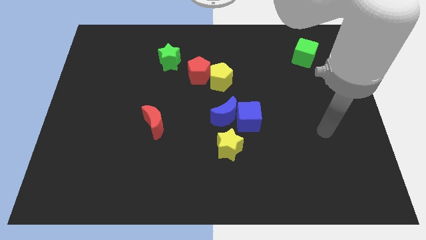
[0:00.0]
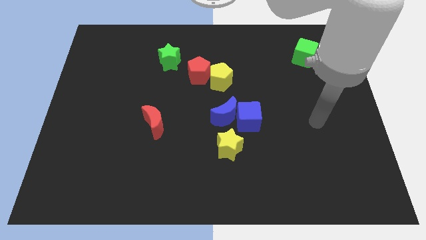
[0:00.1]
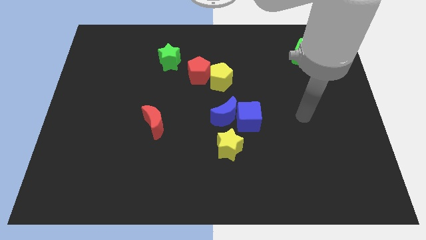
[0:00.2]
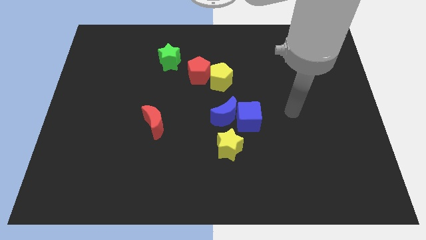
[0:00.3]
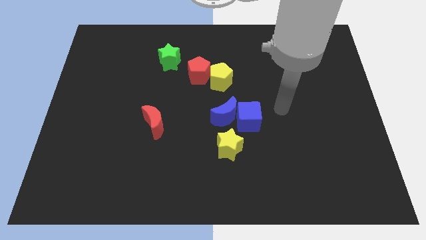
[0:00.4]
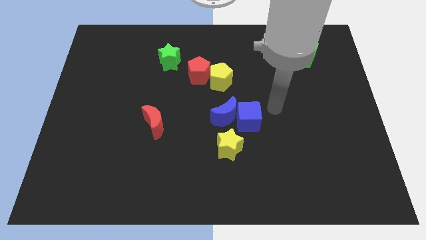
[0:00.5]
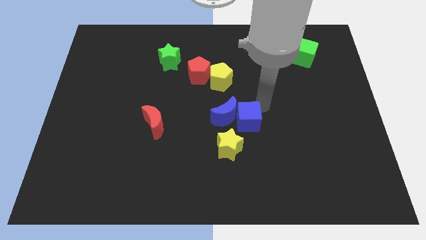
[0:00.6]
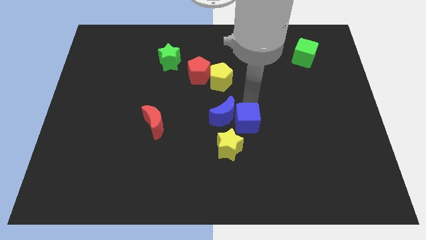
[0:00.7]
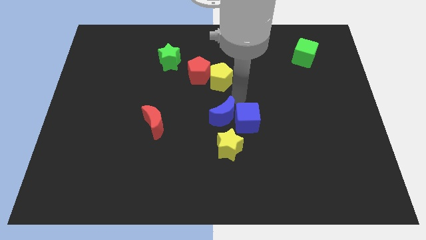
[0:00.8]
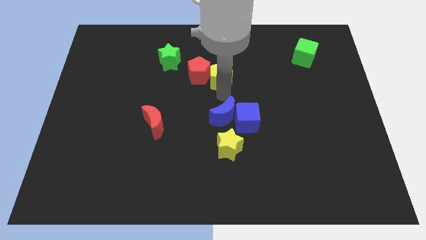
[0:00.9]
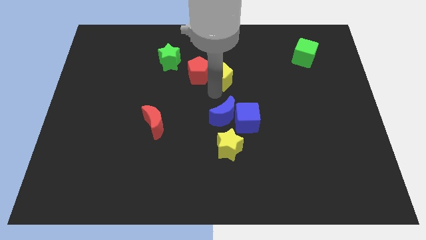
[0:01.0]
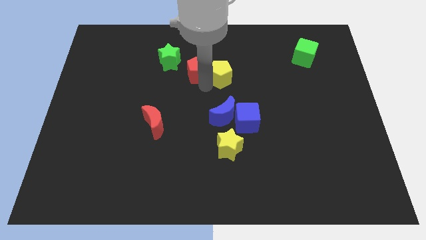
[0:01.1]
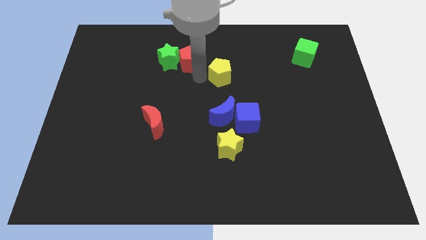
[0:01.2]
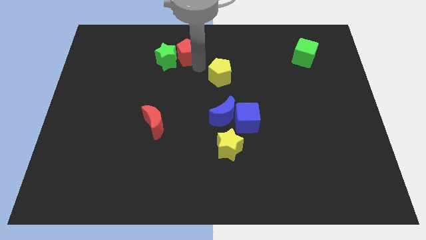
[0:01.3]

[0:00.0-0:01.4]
separate the yellow pentagon from the red pentagon

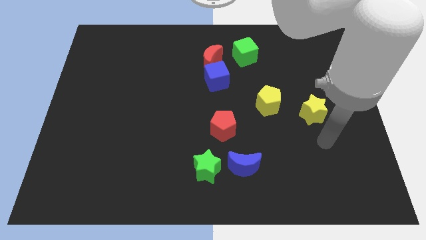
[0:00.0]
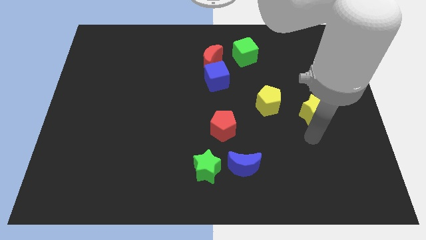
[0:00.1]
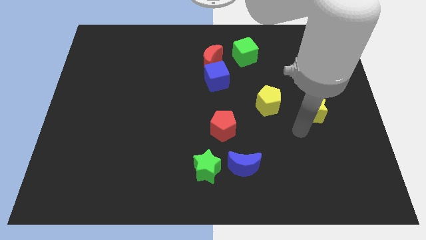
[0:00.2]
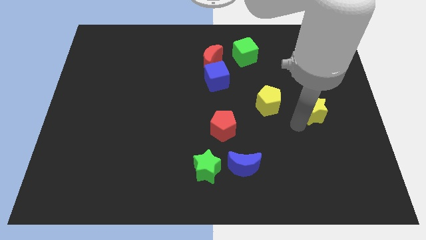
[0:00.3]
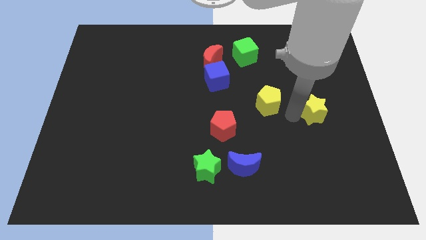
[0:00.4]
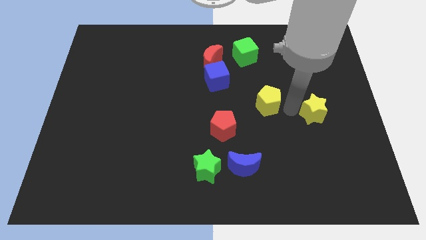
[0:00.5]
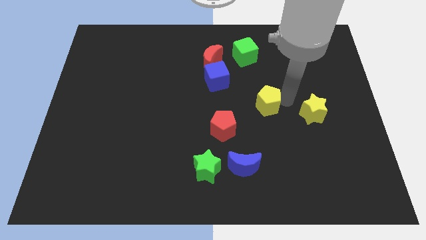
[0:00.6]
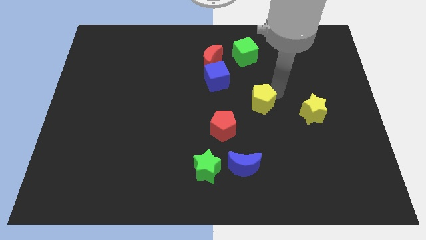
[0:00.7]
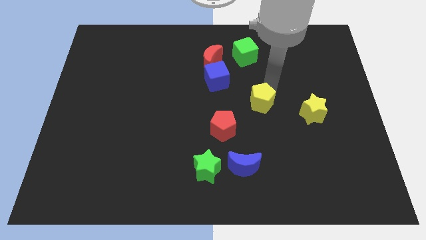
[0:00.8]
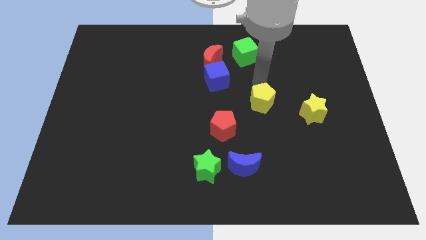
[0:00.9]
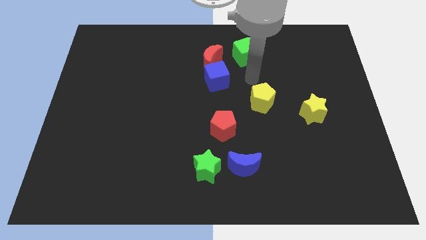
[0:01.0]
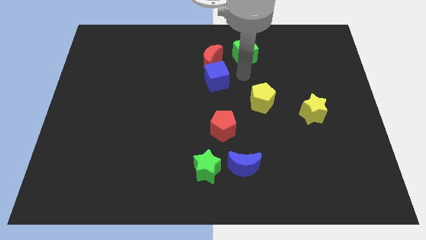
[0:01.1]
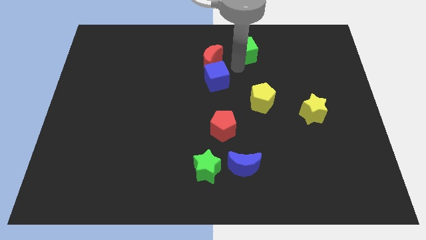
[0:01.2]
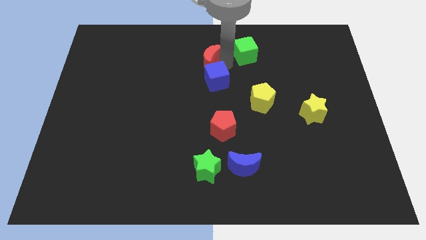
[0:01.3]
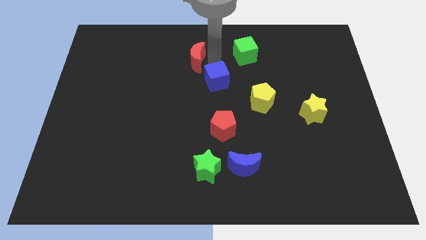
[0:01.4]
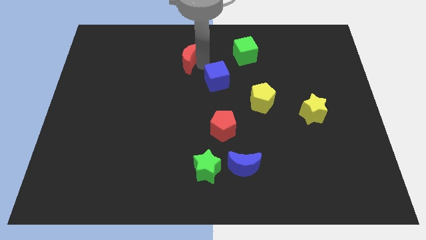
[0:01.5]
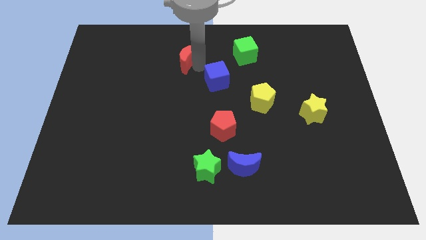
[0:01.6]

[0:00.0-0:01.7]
move the blue cube away from the red moon

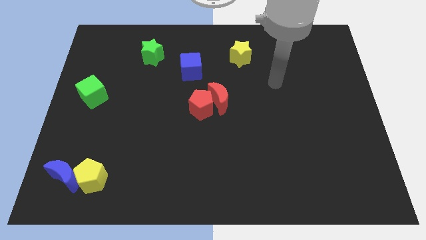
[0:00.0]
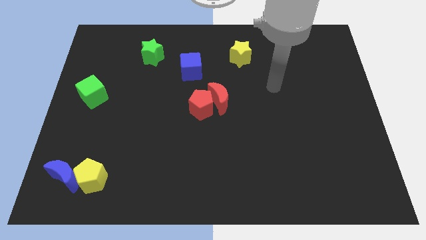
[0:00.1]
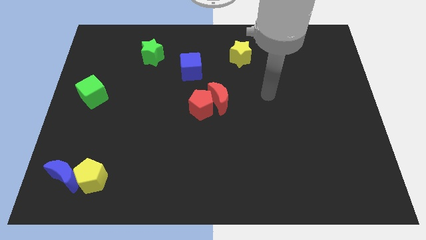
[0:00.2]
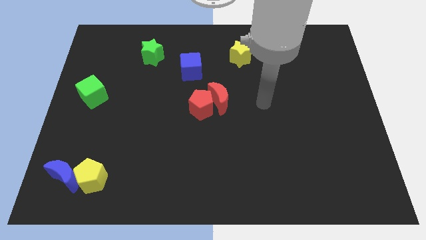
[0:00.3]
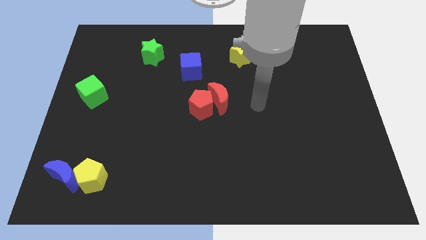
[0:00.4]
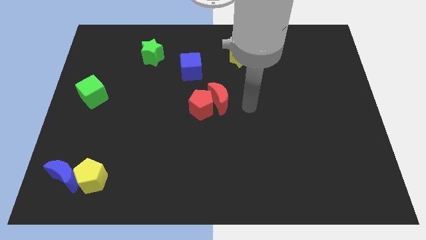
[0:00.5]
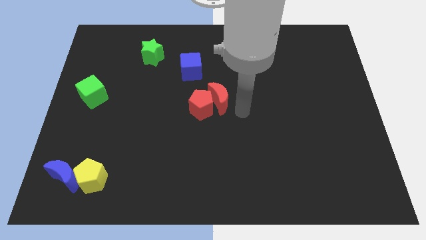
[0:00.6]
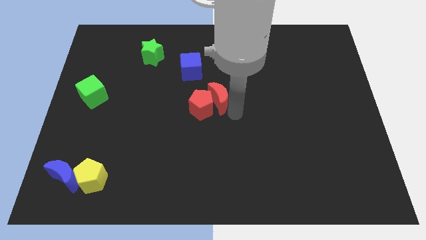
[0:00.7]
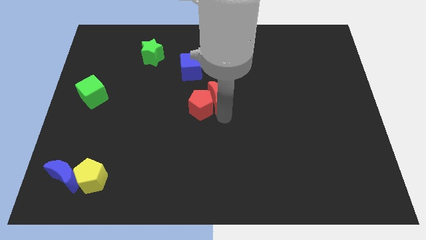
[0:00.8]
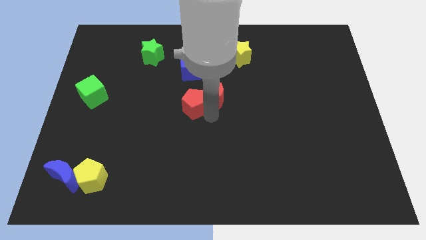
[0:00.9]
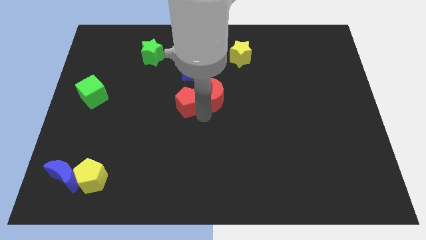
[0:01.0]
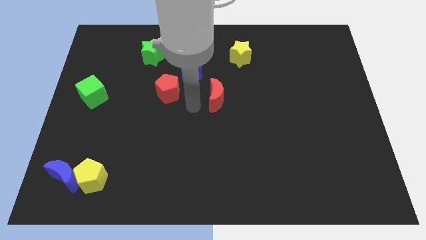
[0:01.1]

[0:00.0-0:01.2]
pull the red moon apart from the red pentagon

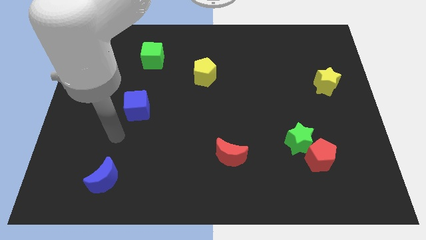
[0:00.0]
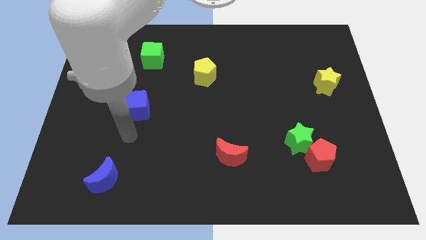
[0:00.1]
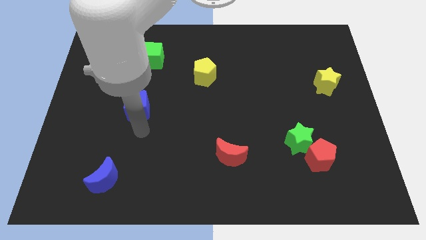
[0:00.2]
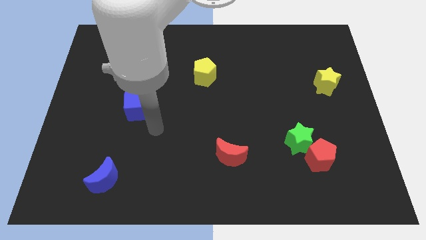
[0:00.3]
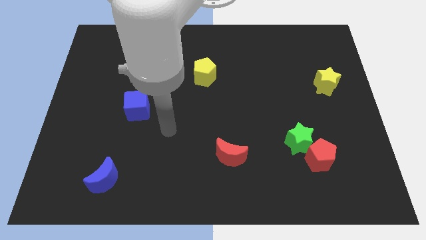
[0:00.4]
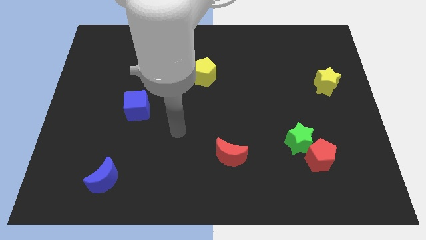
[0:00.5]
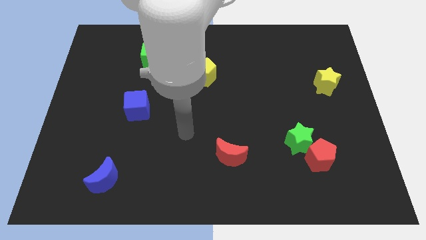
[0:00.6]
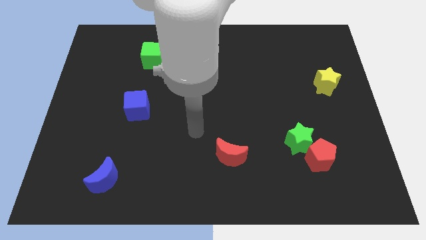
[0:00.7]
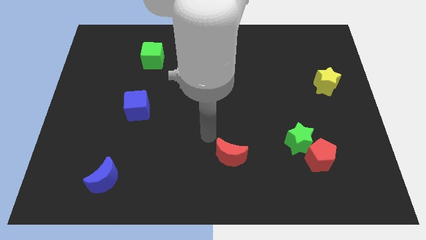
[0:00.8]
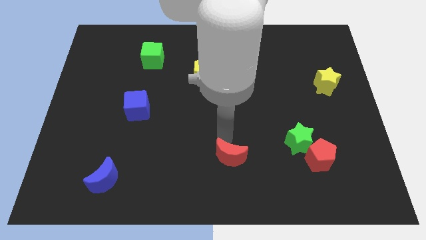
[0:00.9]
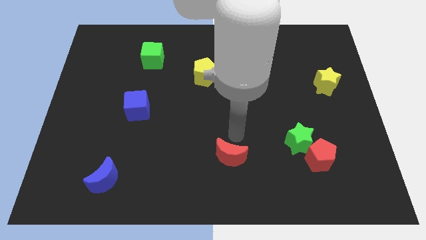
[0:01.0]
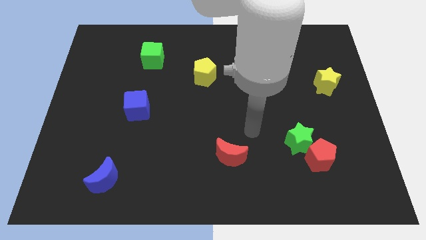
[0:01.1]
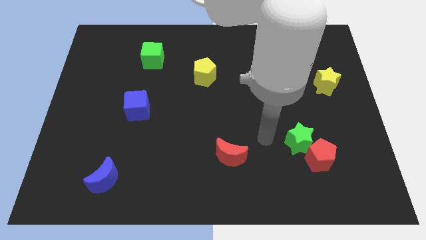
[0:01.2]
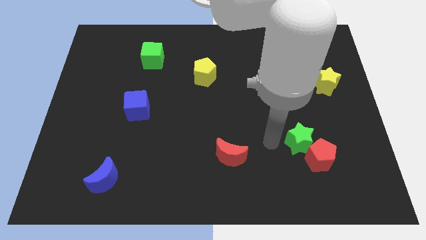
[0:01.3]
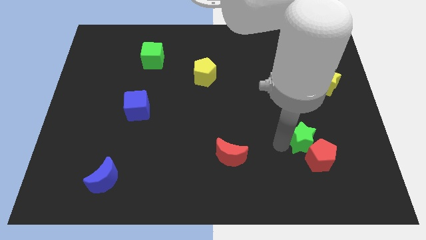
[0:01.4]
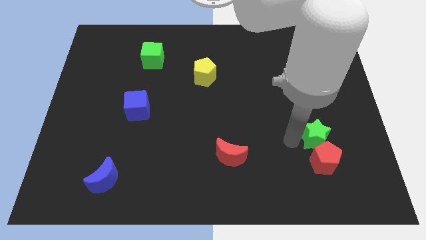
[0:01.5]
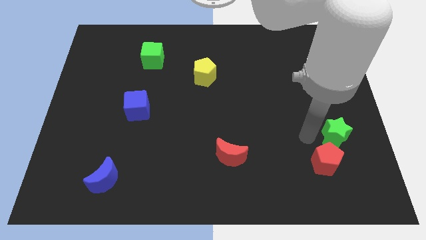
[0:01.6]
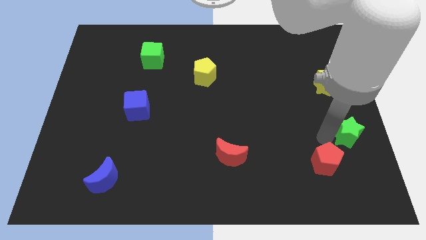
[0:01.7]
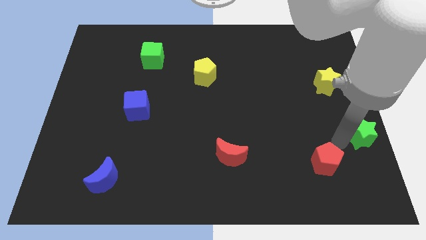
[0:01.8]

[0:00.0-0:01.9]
separate the red pentagon from the green star

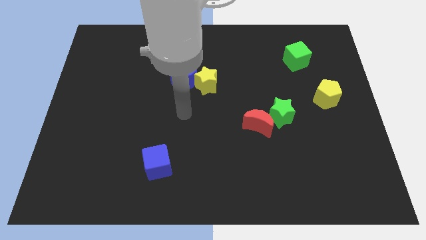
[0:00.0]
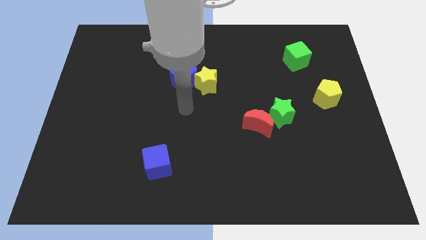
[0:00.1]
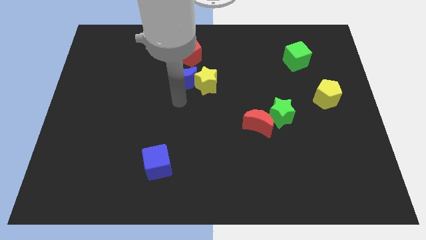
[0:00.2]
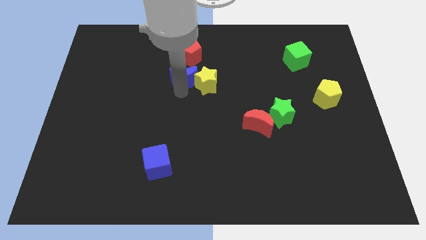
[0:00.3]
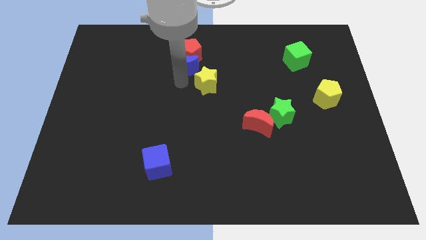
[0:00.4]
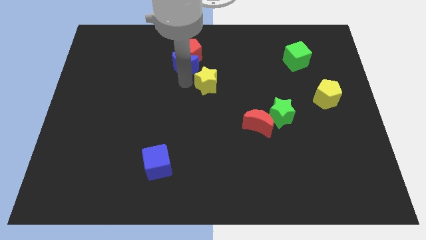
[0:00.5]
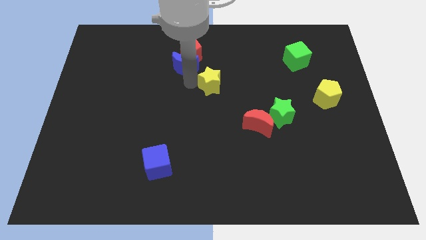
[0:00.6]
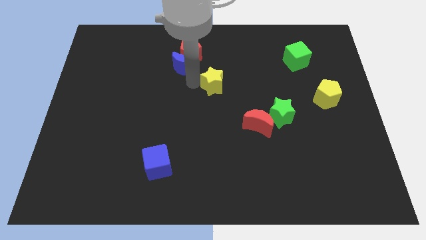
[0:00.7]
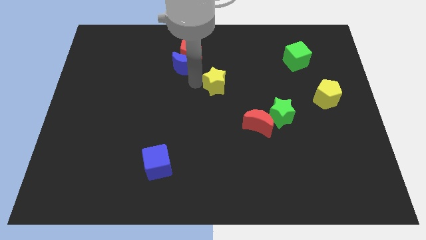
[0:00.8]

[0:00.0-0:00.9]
move the yellow star away from the blue moon

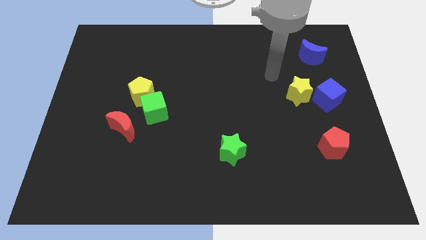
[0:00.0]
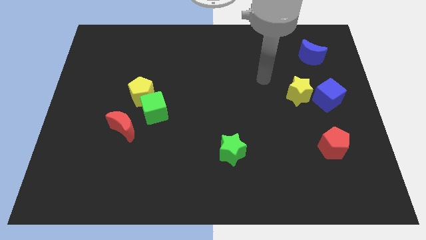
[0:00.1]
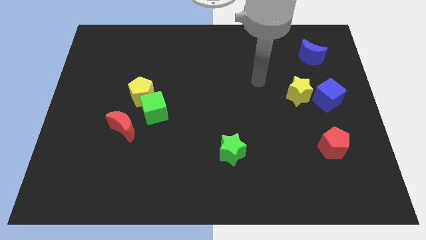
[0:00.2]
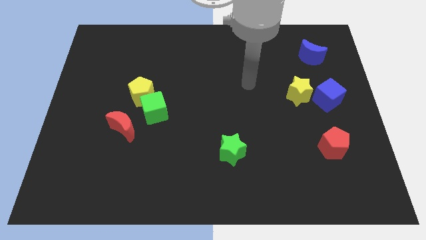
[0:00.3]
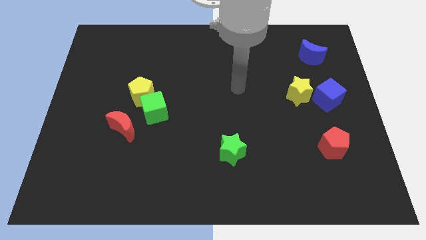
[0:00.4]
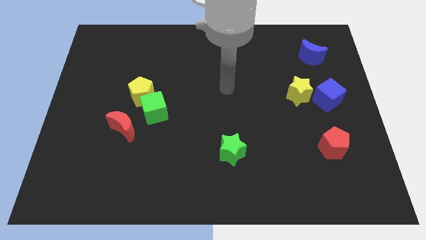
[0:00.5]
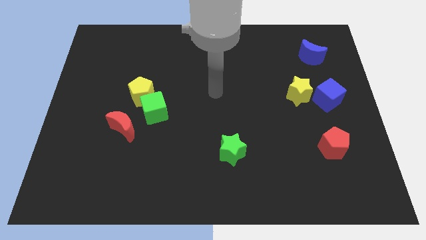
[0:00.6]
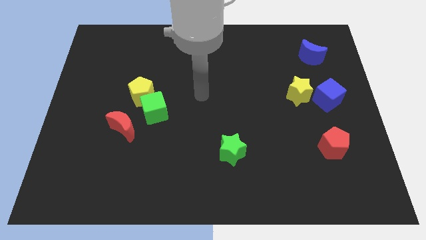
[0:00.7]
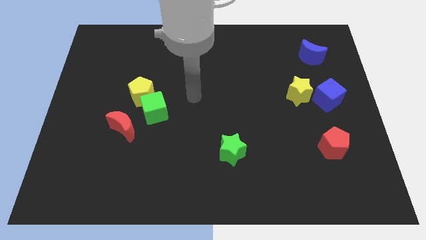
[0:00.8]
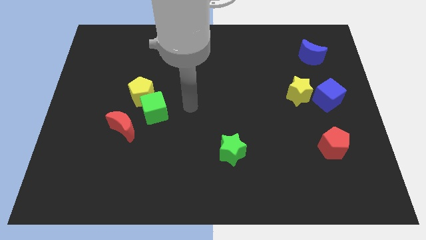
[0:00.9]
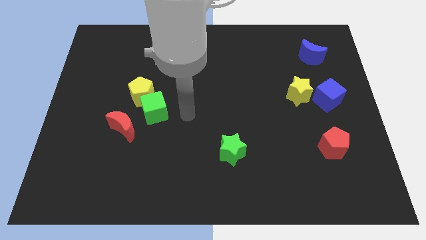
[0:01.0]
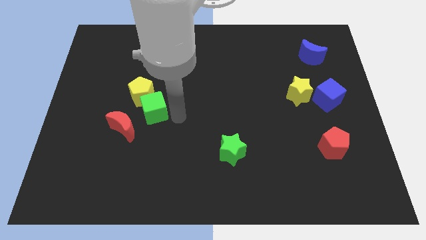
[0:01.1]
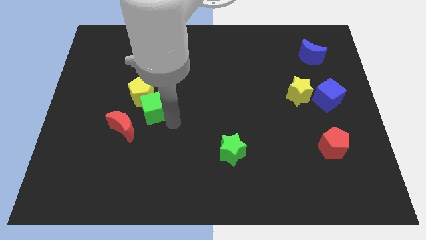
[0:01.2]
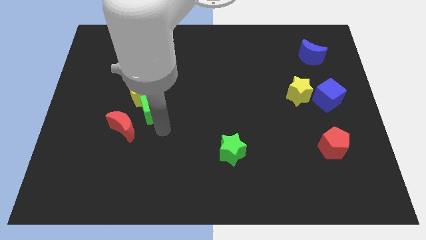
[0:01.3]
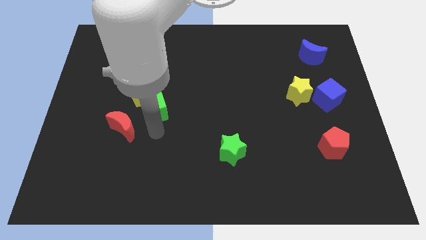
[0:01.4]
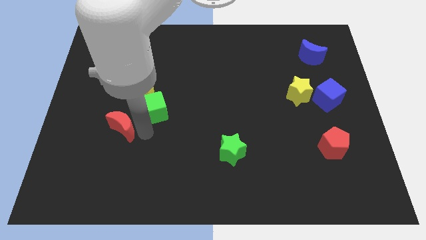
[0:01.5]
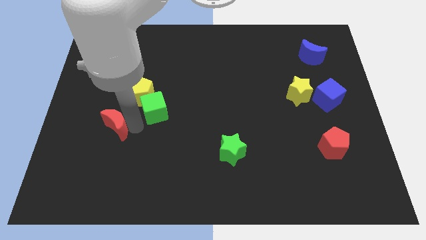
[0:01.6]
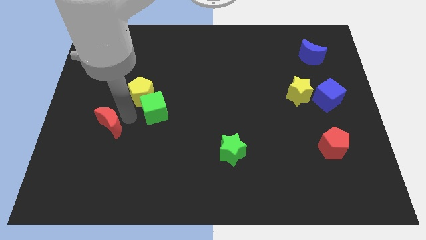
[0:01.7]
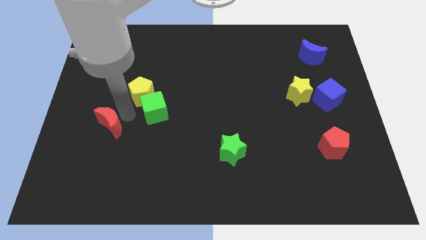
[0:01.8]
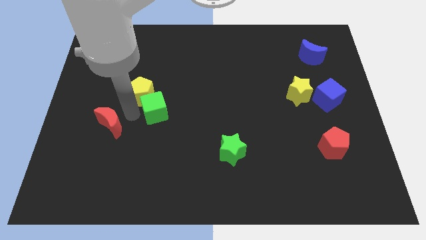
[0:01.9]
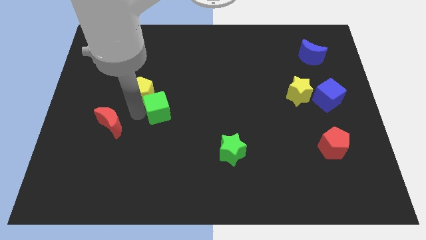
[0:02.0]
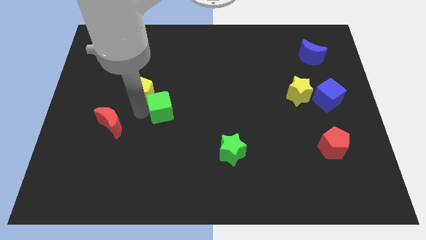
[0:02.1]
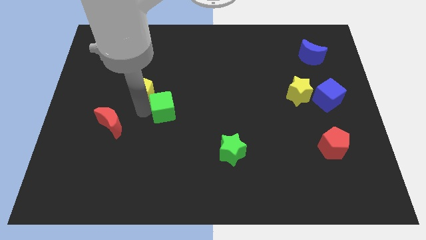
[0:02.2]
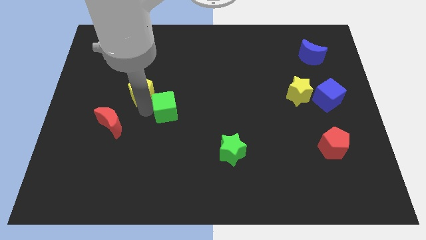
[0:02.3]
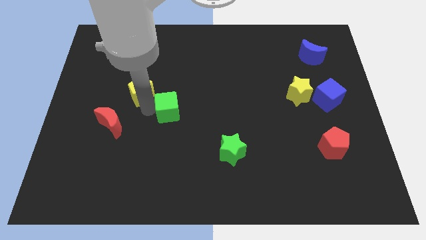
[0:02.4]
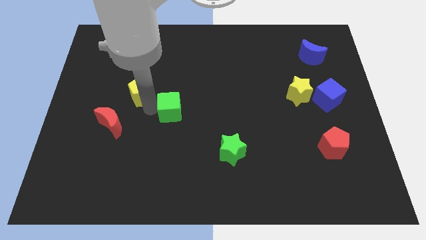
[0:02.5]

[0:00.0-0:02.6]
separate the green cube from the yellow pentagon and red moon
